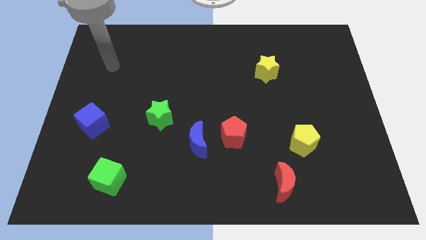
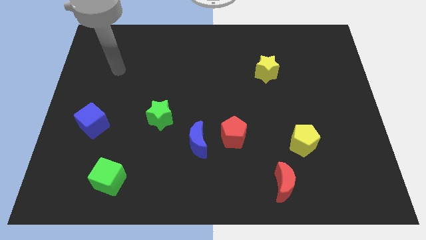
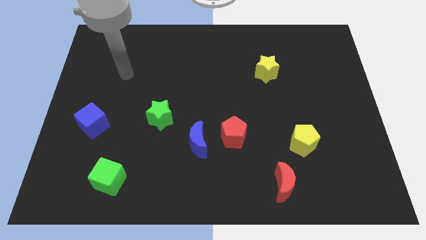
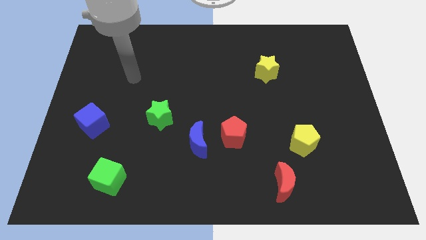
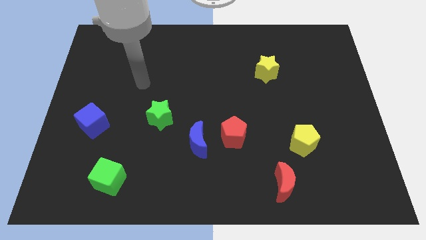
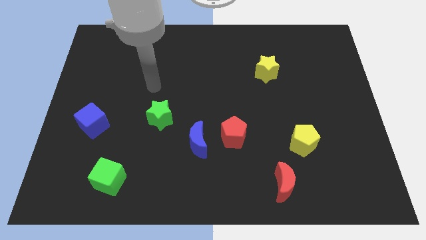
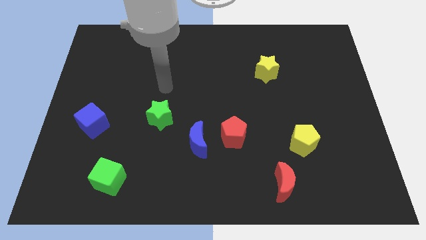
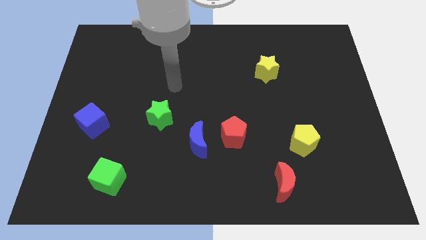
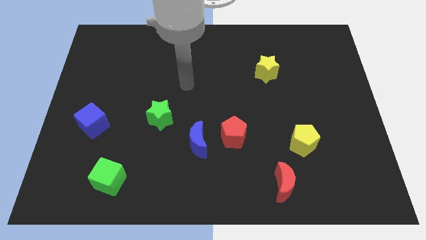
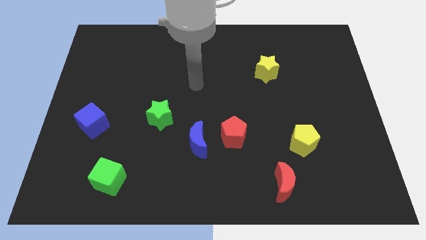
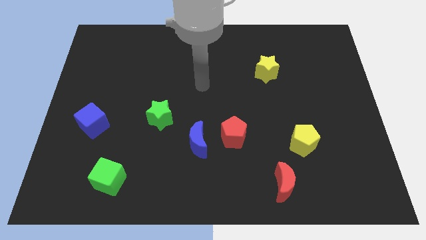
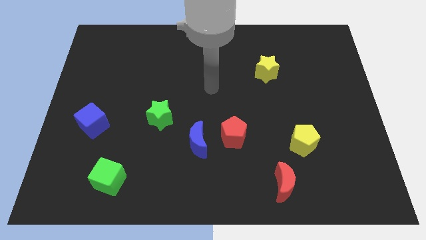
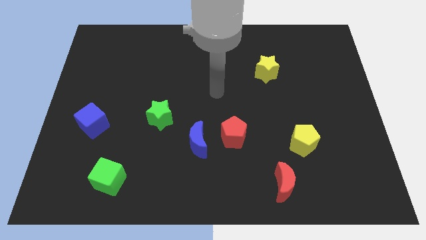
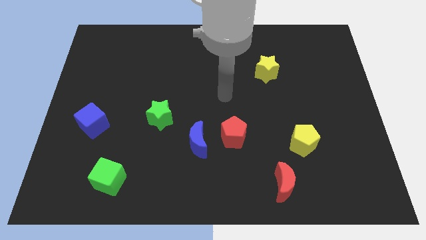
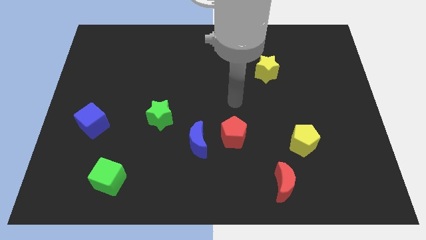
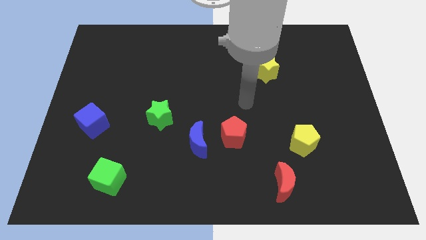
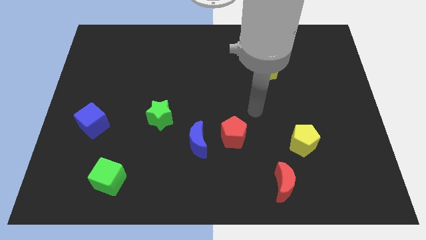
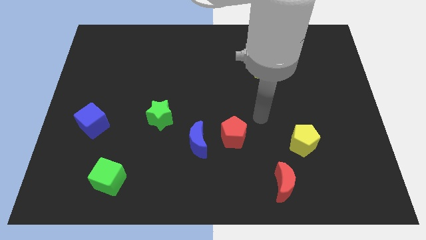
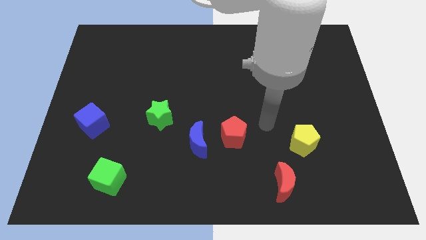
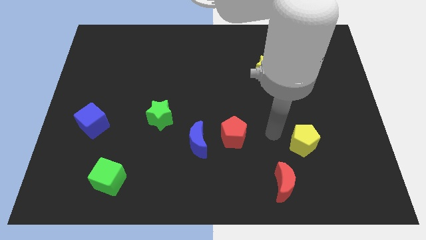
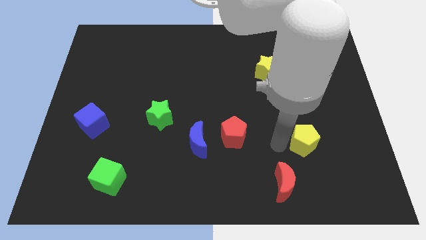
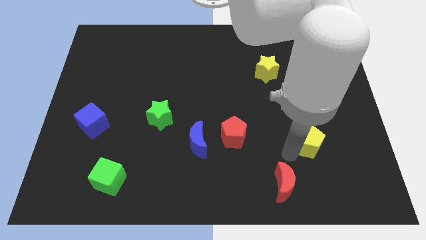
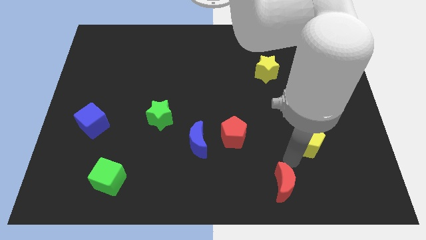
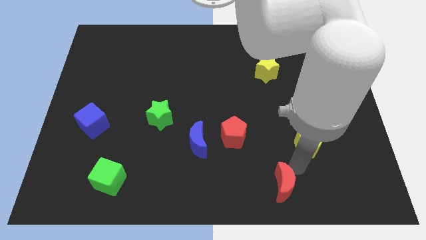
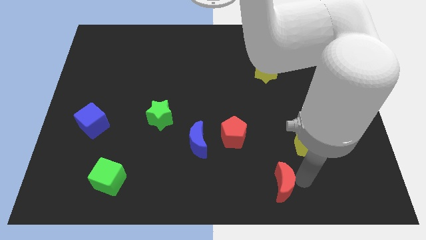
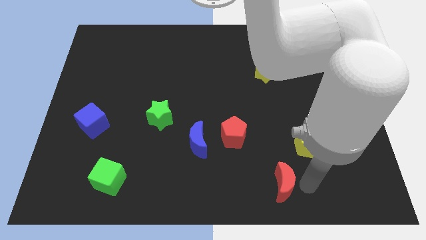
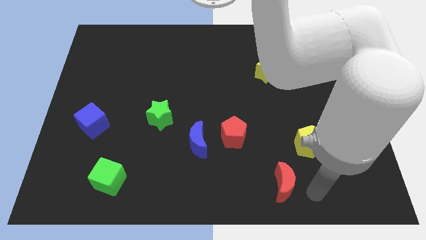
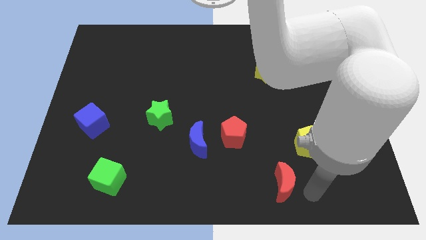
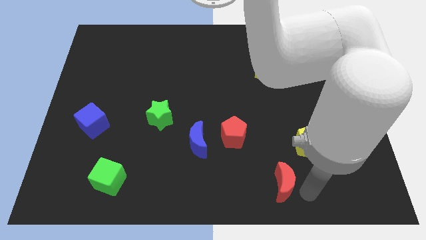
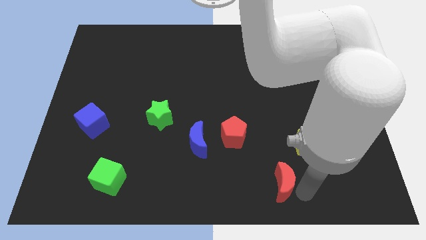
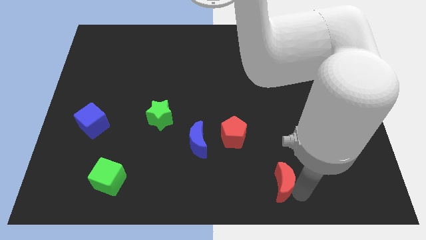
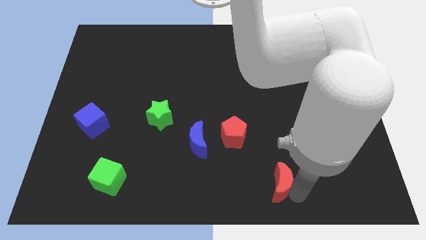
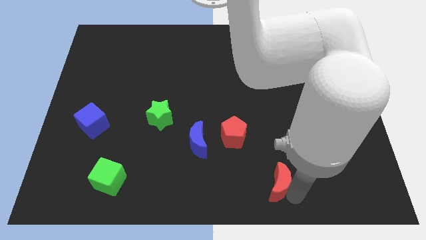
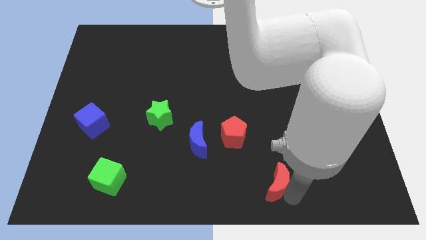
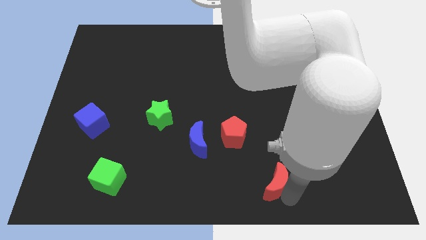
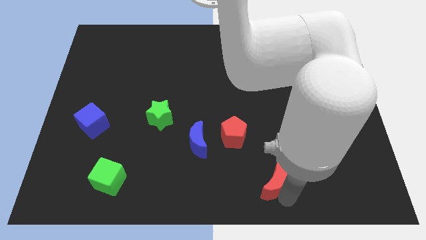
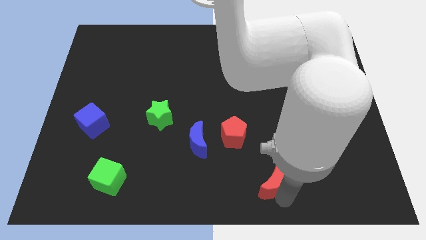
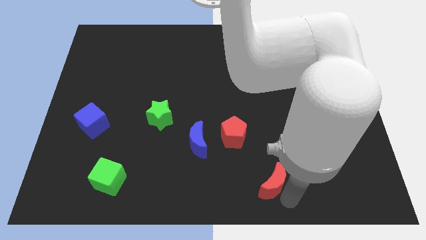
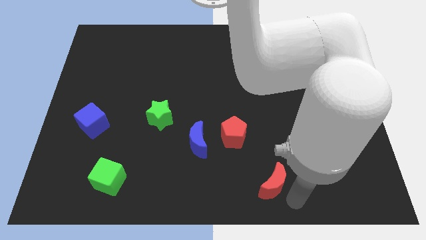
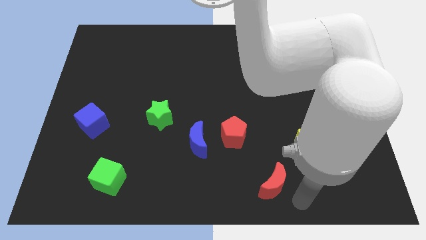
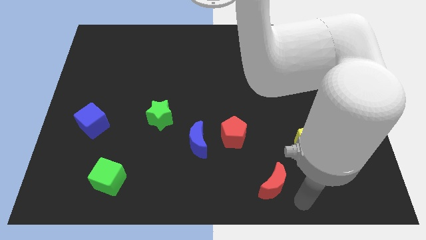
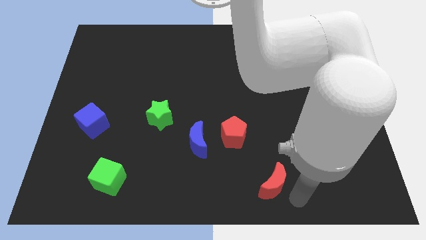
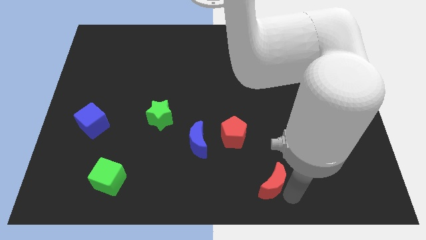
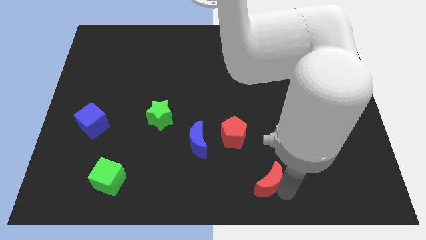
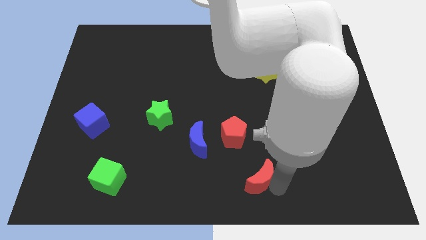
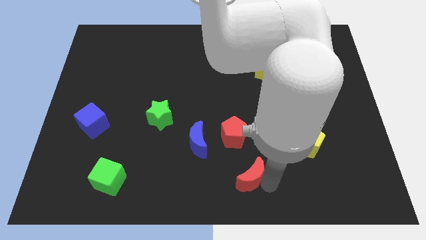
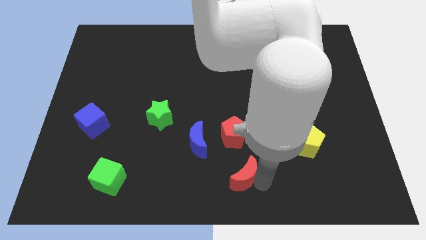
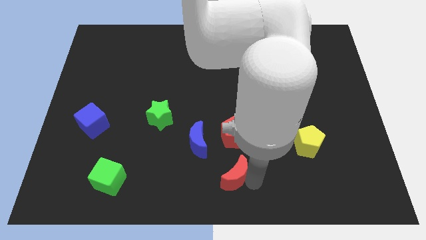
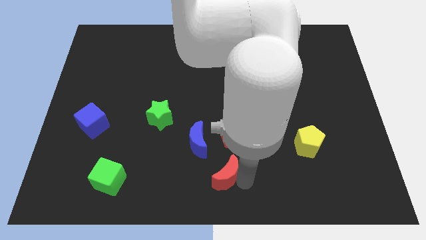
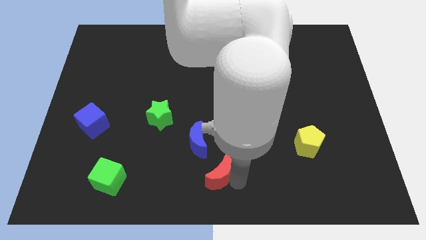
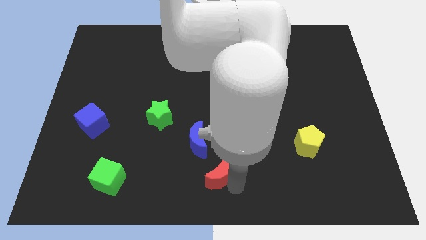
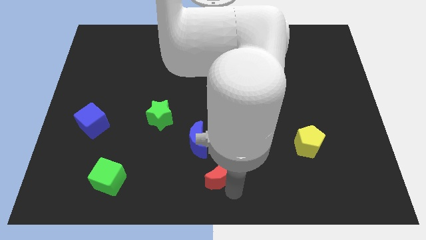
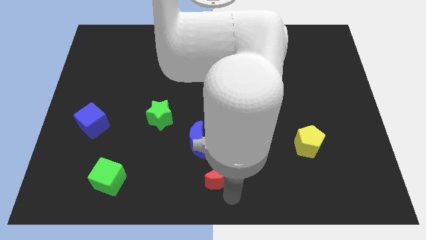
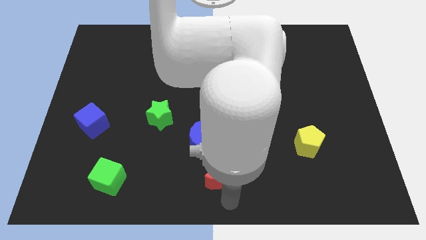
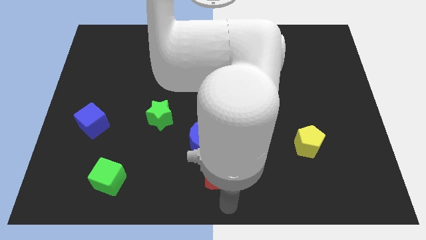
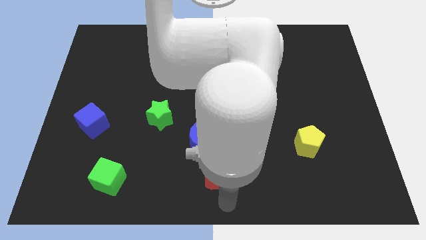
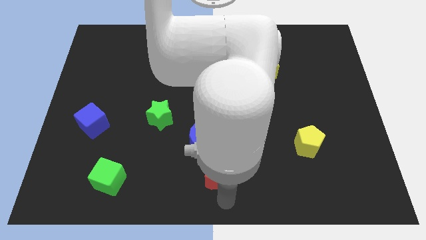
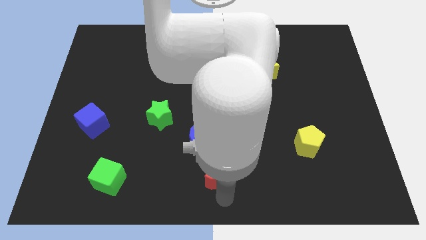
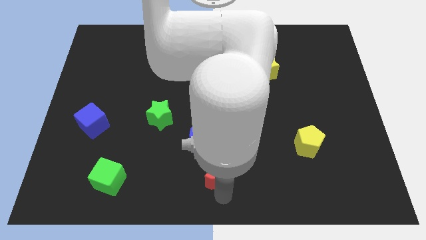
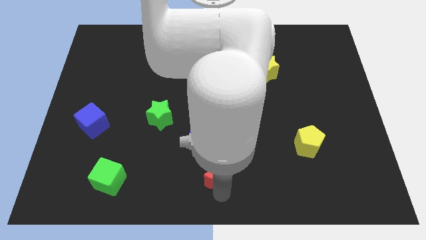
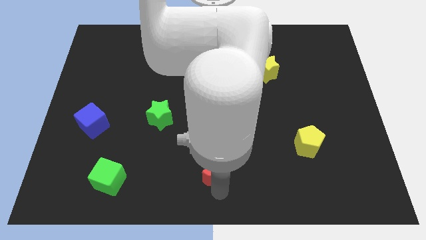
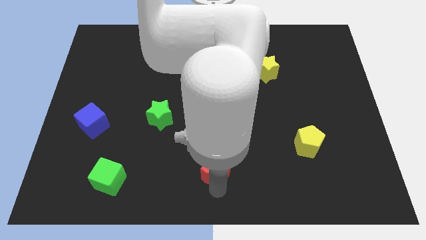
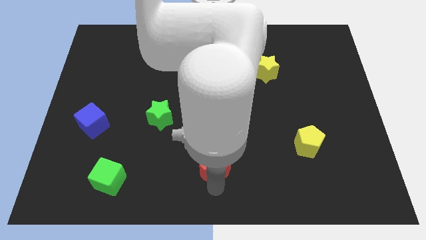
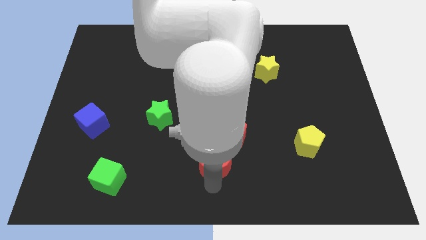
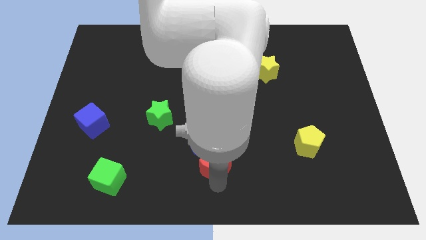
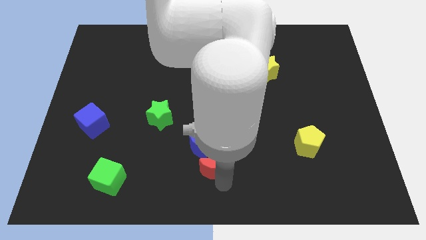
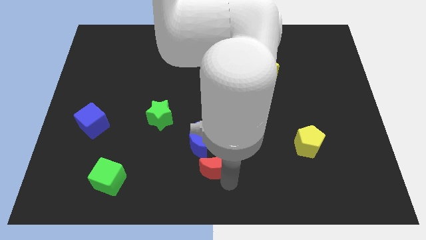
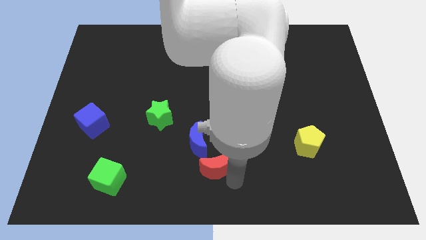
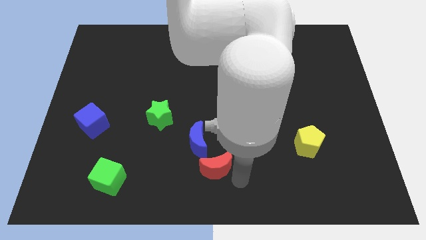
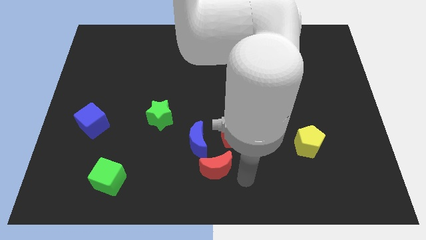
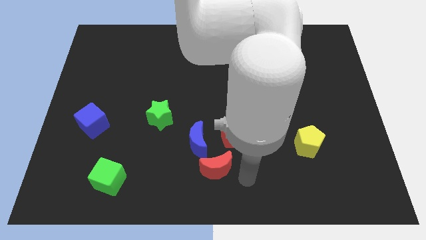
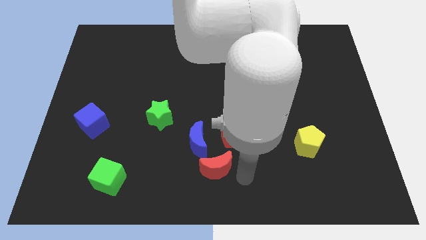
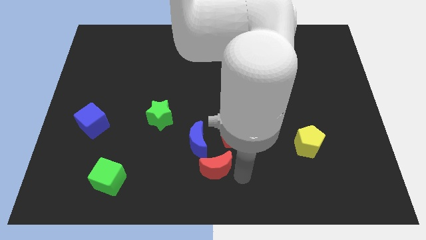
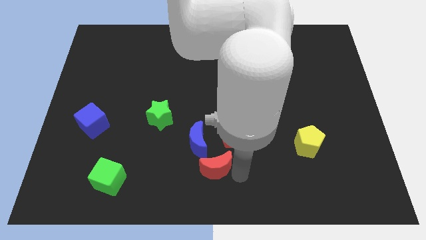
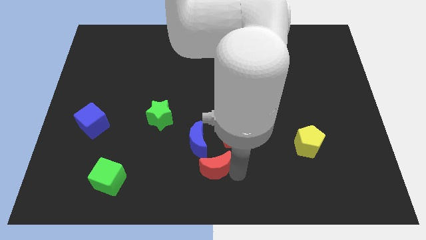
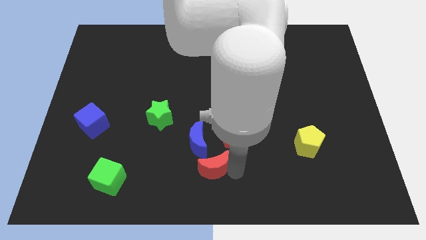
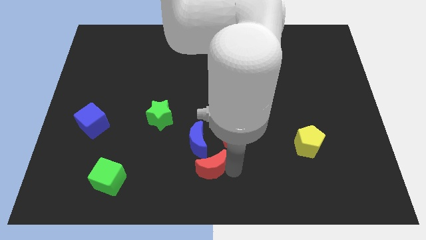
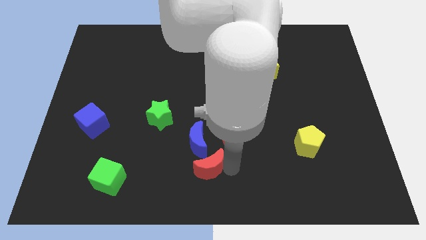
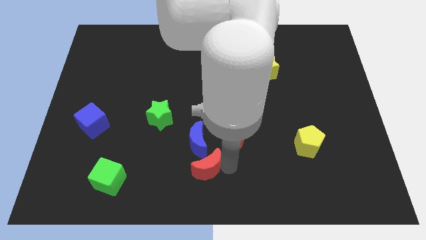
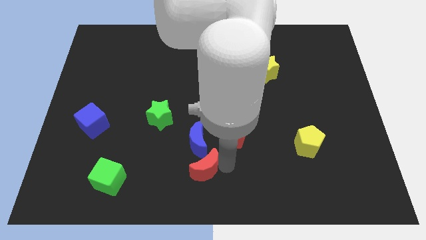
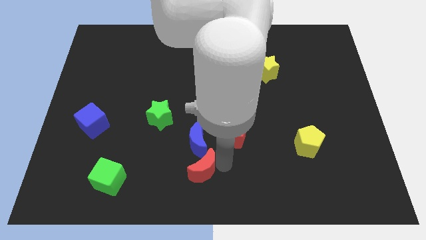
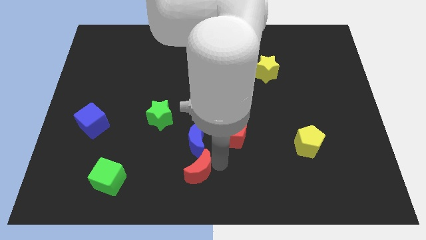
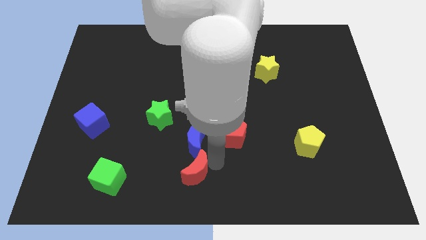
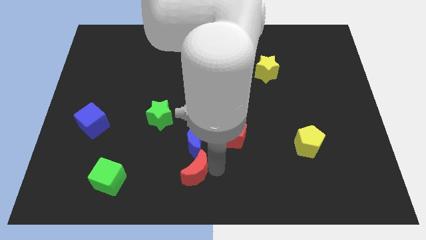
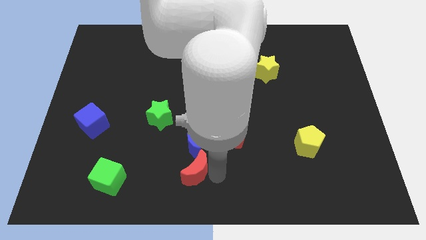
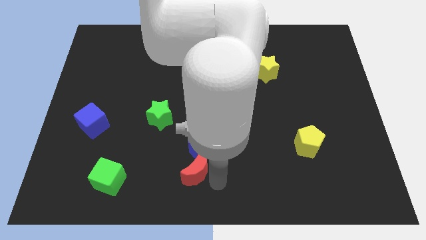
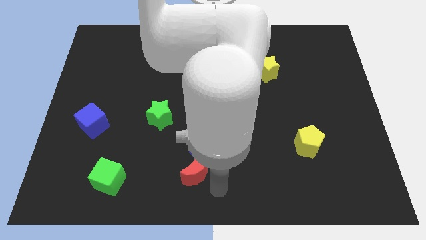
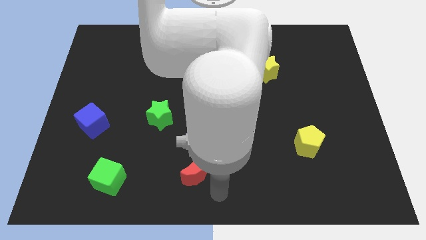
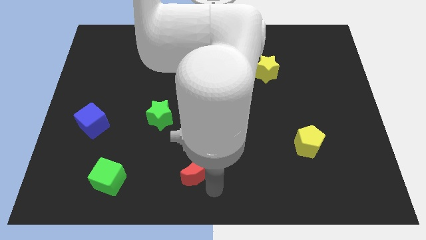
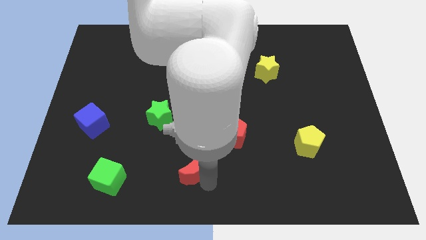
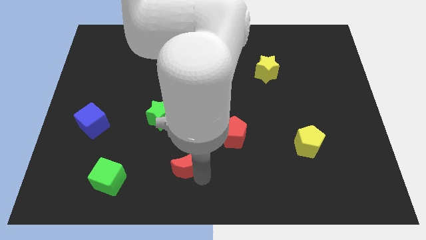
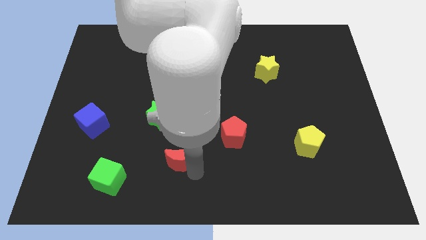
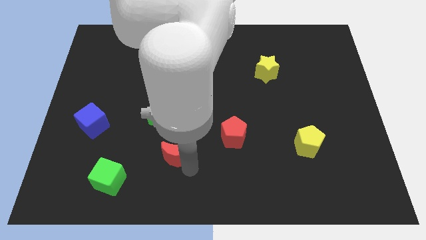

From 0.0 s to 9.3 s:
move the red moon to the bottom right of the green star
